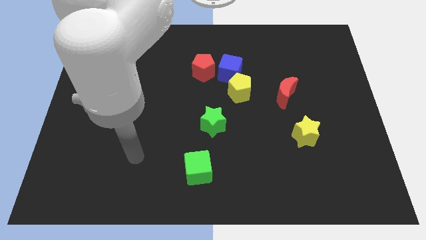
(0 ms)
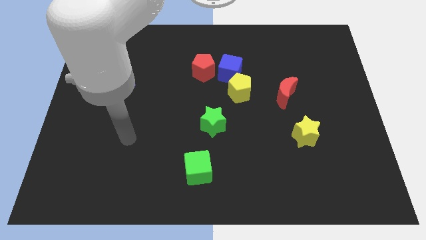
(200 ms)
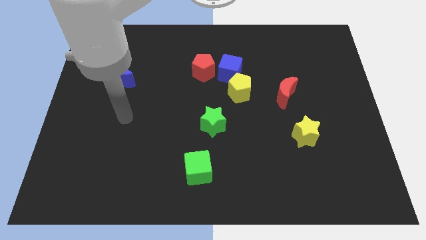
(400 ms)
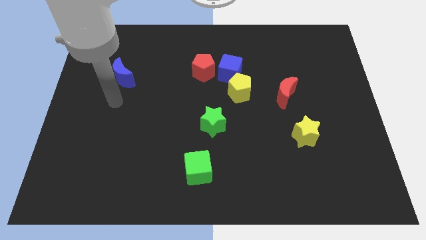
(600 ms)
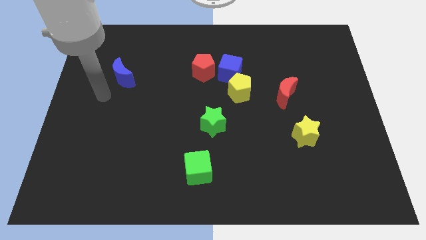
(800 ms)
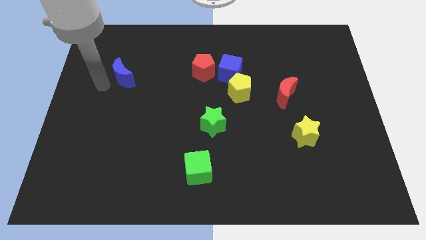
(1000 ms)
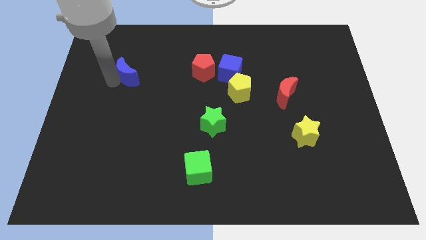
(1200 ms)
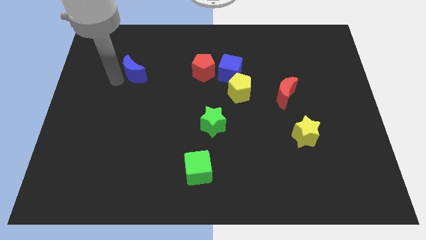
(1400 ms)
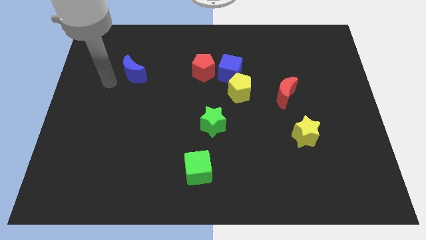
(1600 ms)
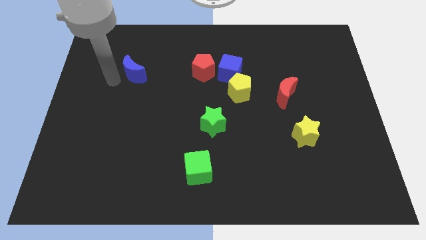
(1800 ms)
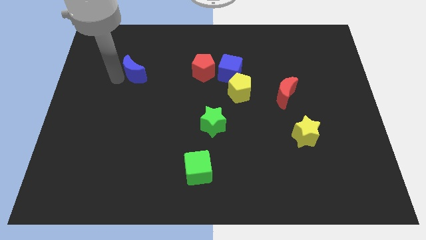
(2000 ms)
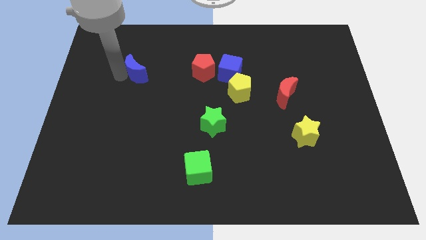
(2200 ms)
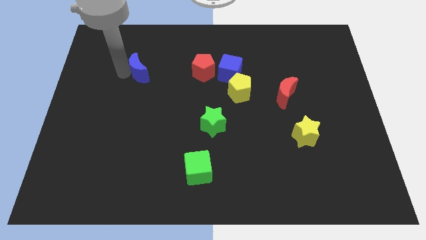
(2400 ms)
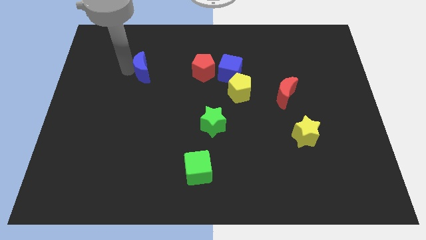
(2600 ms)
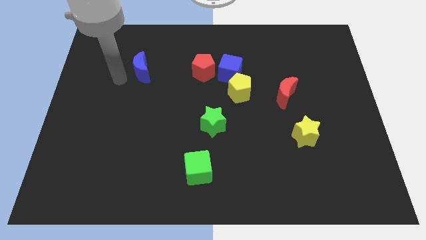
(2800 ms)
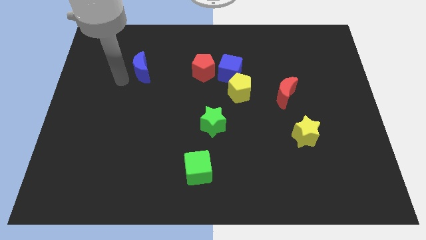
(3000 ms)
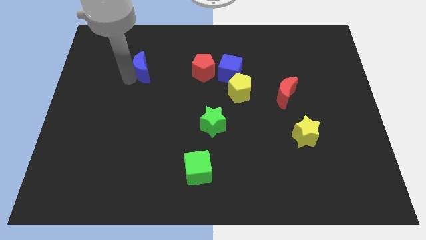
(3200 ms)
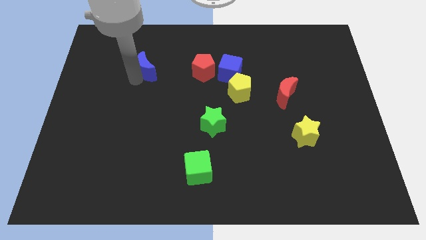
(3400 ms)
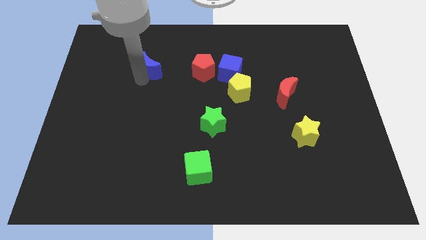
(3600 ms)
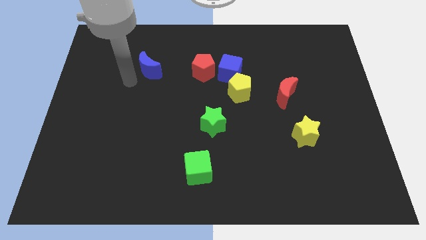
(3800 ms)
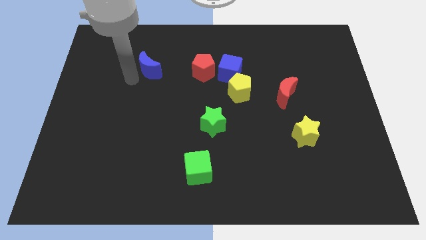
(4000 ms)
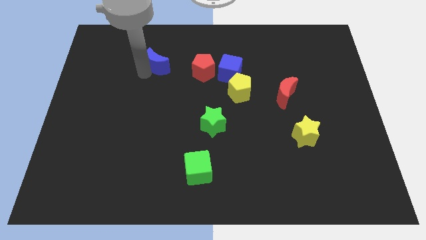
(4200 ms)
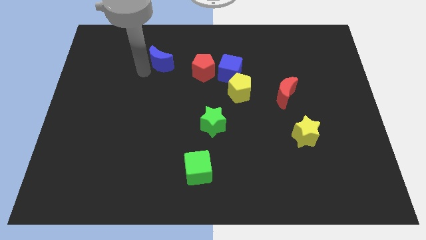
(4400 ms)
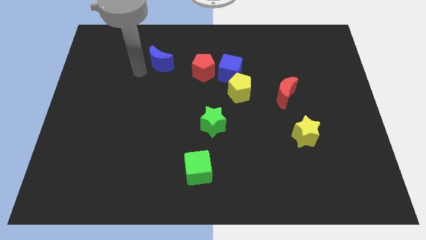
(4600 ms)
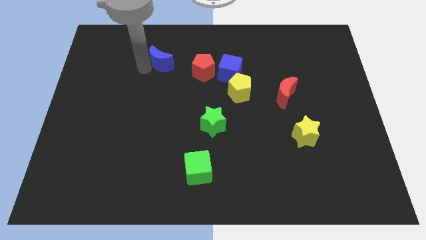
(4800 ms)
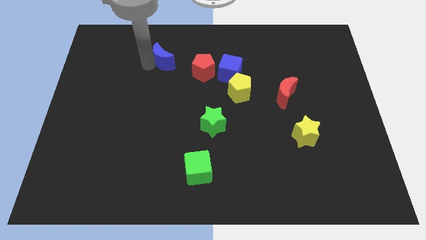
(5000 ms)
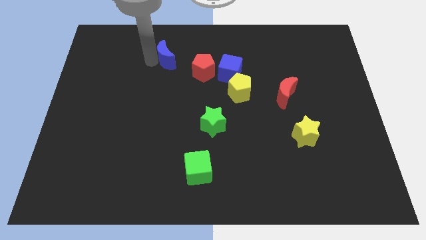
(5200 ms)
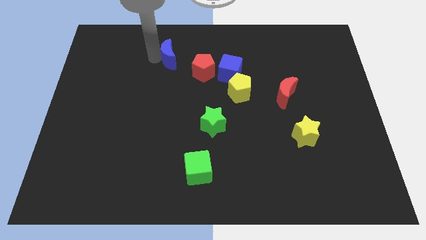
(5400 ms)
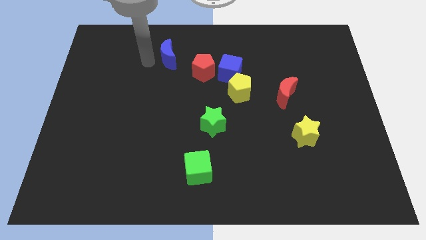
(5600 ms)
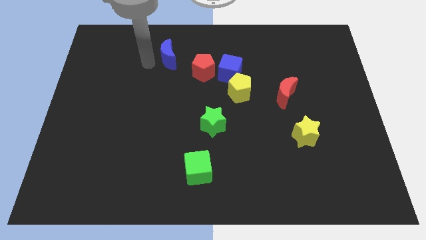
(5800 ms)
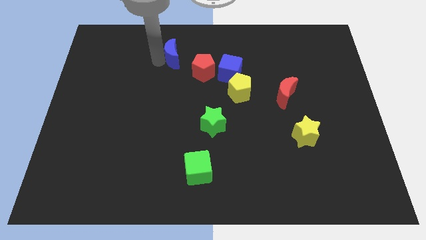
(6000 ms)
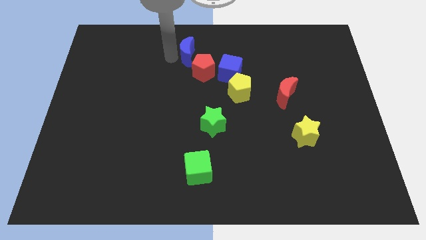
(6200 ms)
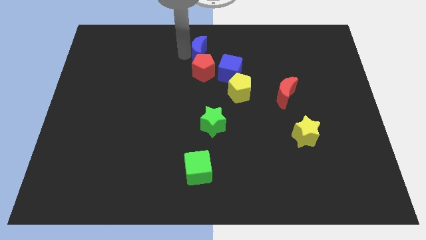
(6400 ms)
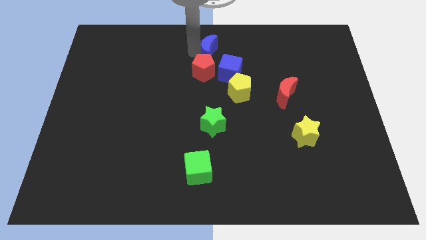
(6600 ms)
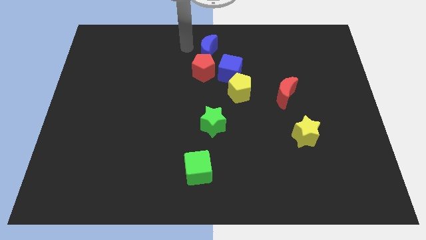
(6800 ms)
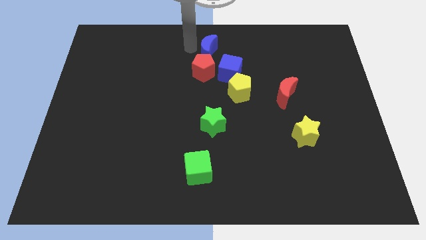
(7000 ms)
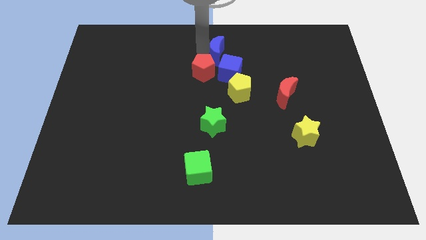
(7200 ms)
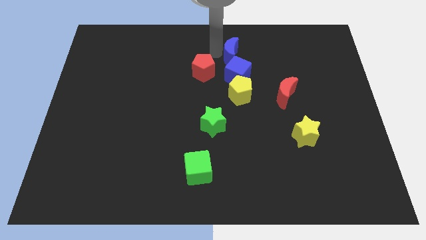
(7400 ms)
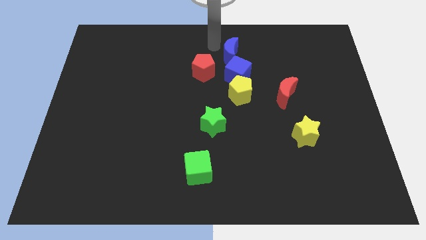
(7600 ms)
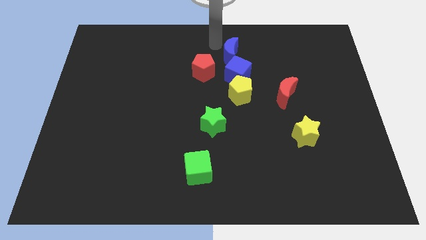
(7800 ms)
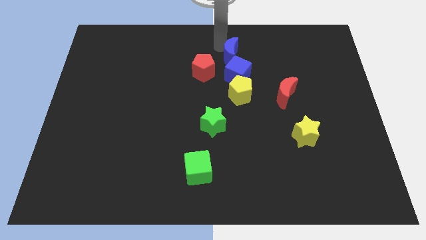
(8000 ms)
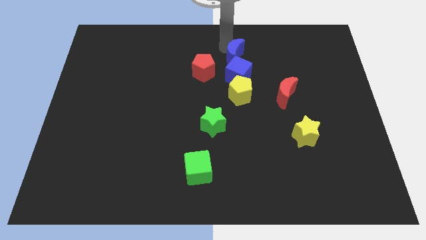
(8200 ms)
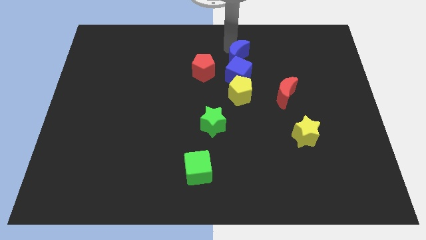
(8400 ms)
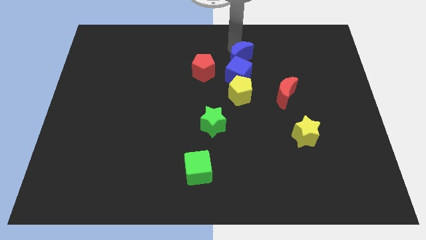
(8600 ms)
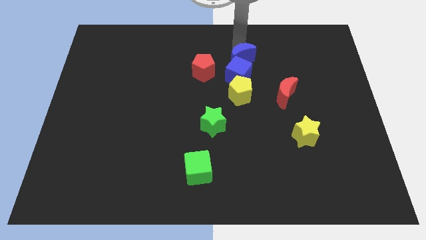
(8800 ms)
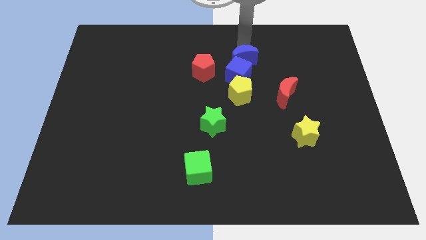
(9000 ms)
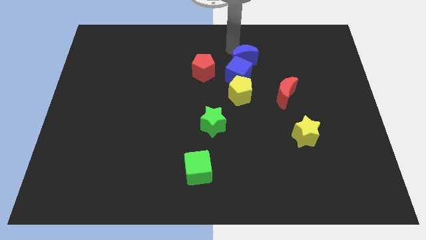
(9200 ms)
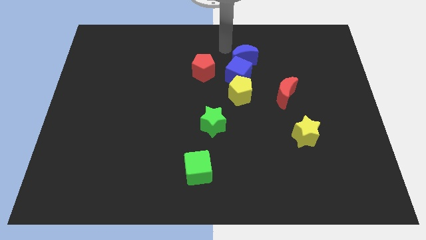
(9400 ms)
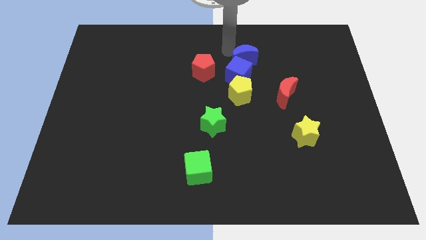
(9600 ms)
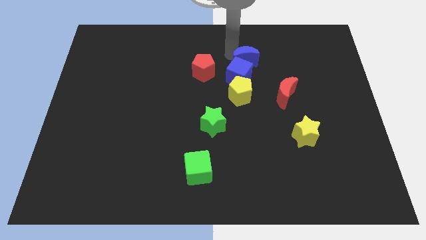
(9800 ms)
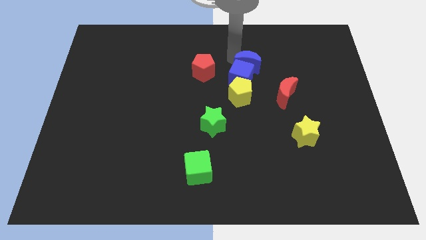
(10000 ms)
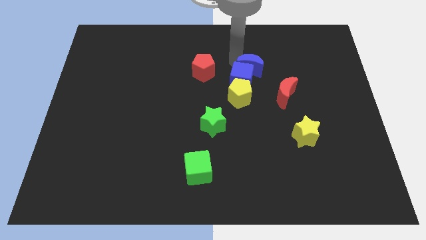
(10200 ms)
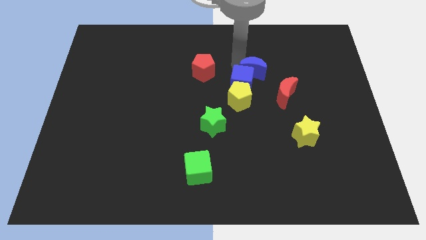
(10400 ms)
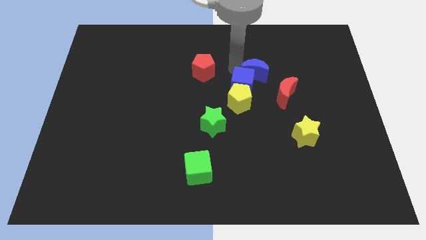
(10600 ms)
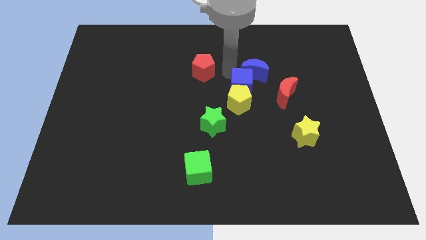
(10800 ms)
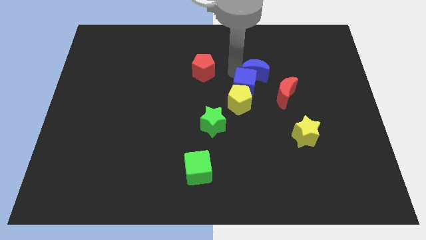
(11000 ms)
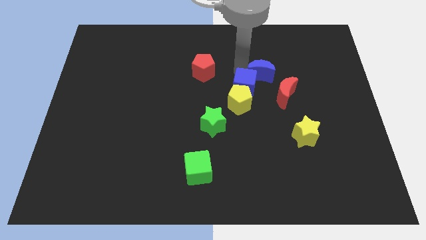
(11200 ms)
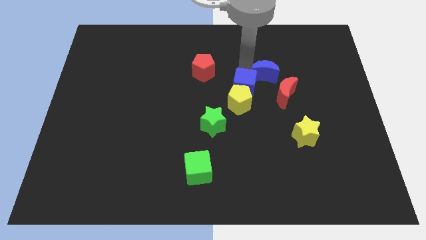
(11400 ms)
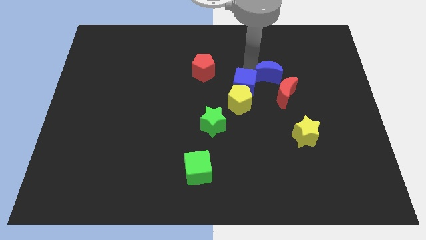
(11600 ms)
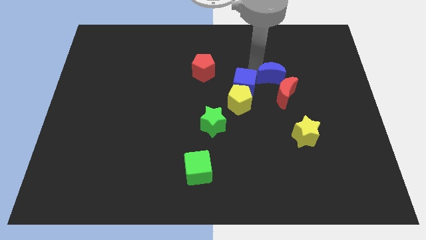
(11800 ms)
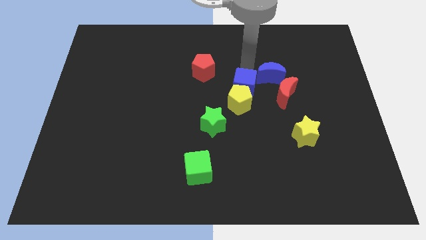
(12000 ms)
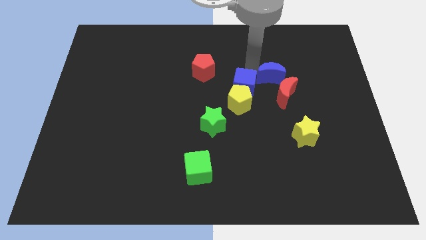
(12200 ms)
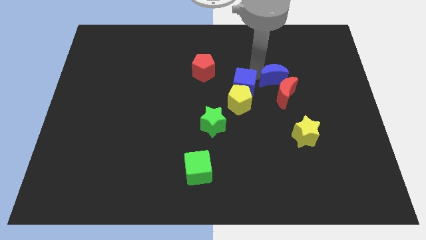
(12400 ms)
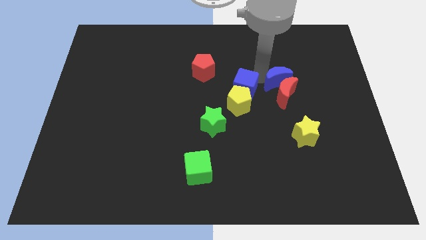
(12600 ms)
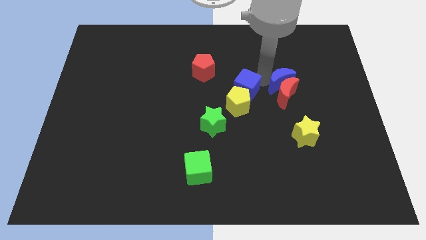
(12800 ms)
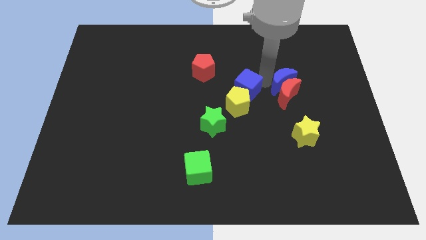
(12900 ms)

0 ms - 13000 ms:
push the blue moon to the top of the yellow star

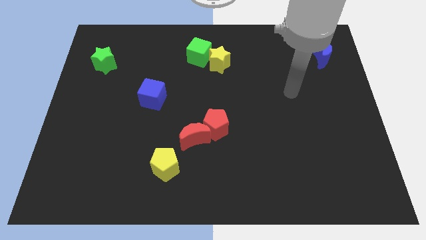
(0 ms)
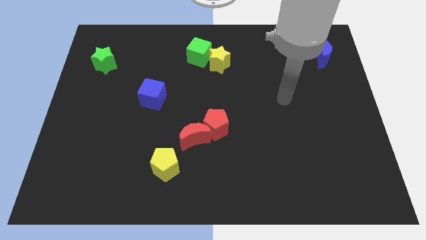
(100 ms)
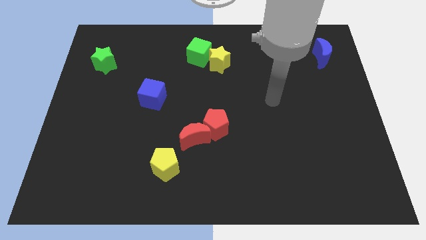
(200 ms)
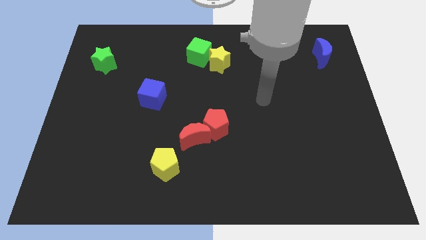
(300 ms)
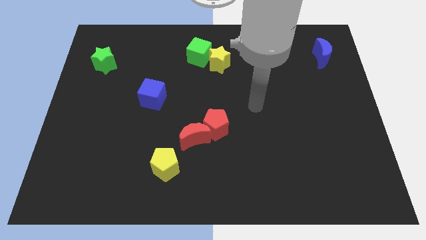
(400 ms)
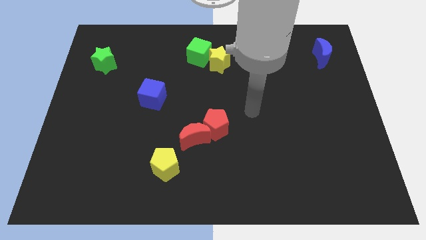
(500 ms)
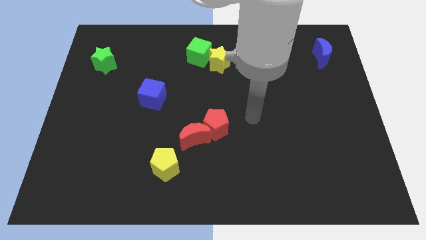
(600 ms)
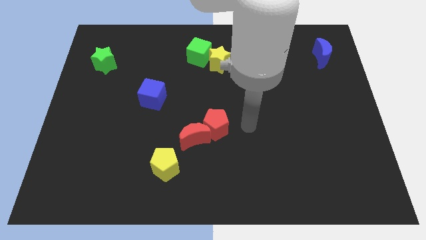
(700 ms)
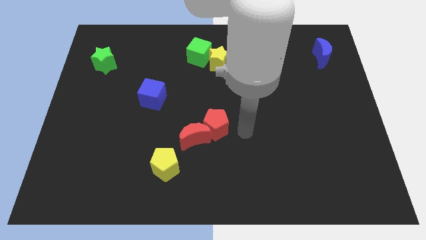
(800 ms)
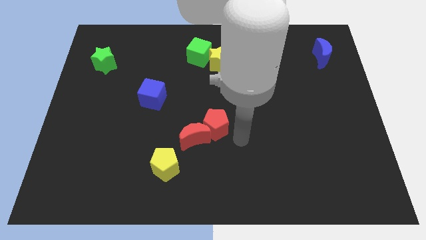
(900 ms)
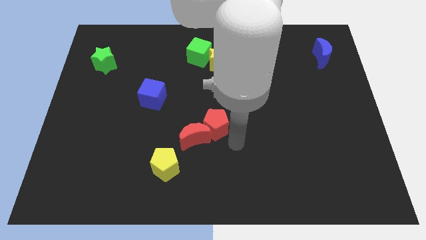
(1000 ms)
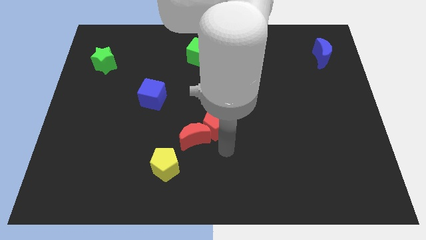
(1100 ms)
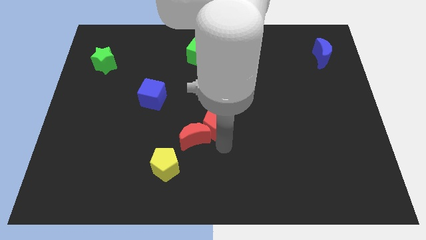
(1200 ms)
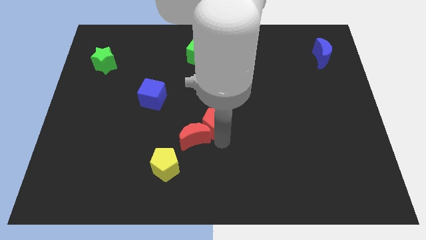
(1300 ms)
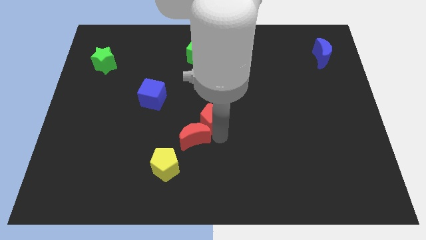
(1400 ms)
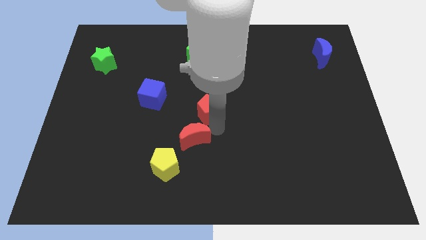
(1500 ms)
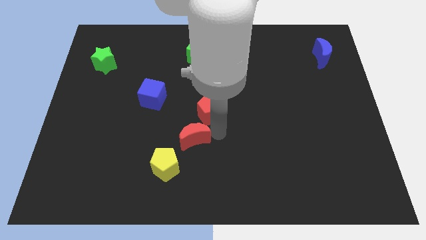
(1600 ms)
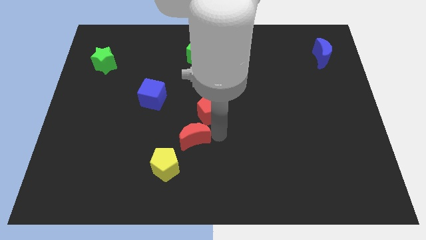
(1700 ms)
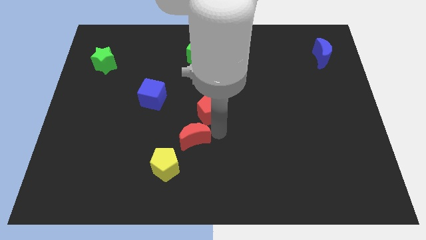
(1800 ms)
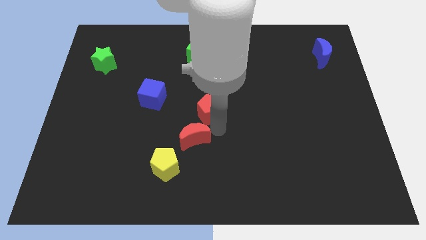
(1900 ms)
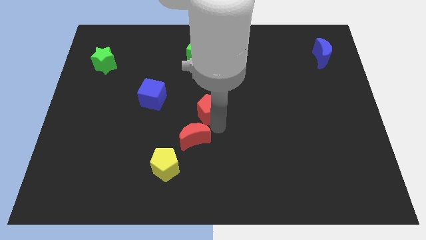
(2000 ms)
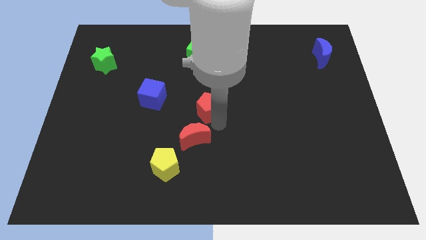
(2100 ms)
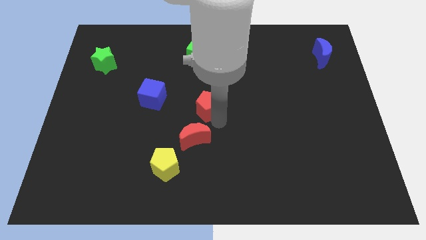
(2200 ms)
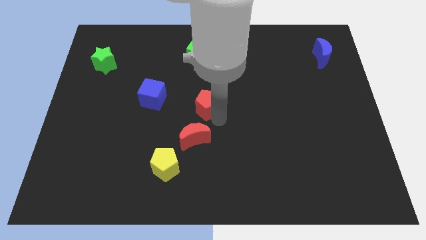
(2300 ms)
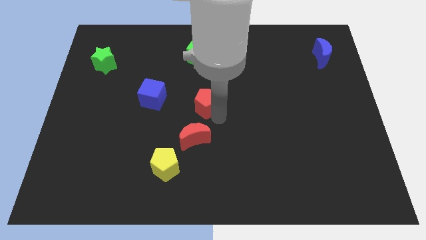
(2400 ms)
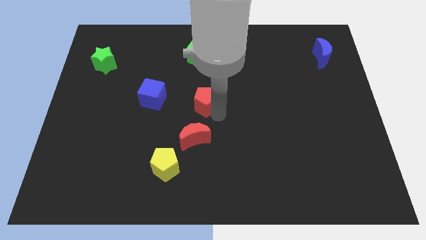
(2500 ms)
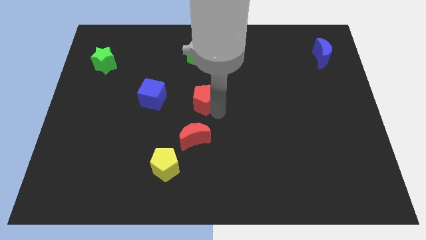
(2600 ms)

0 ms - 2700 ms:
move the red pentagon to the bottom of the green cube
